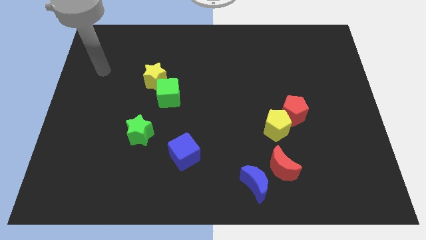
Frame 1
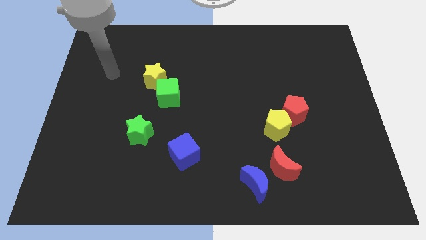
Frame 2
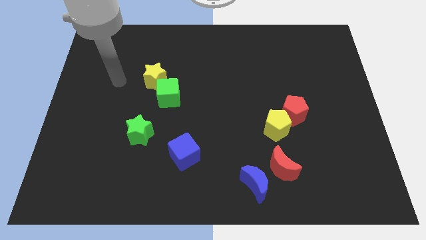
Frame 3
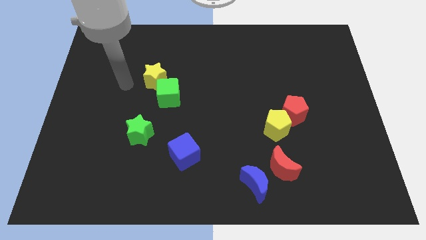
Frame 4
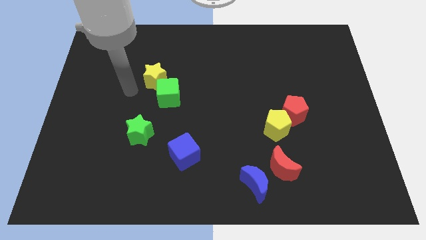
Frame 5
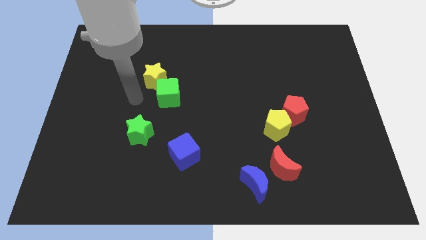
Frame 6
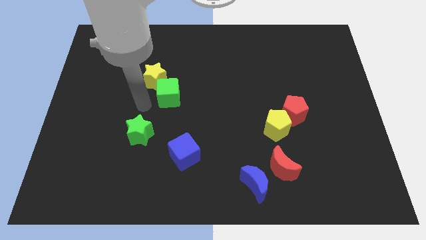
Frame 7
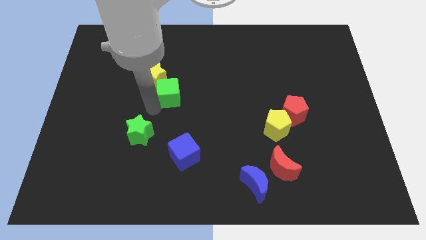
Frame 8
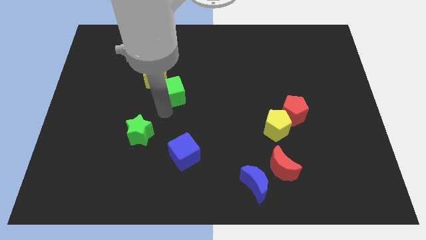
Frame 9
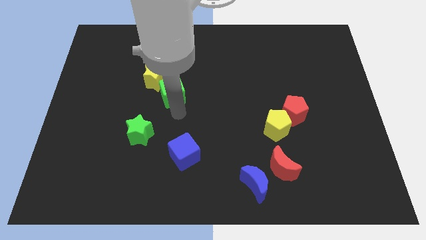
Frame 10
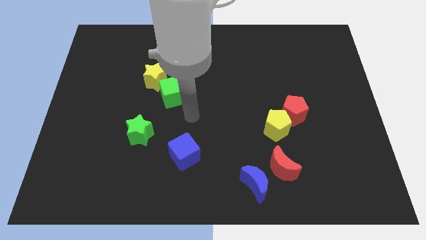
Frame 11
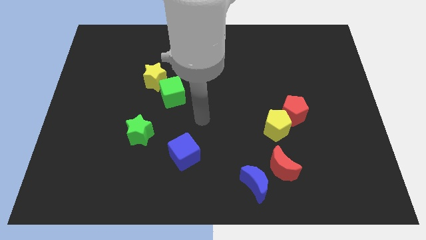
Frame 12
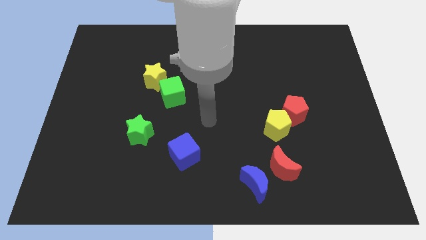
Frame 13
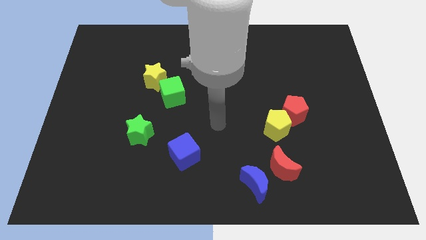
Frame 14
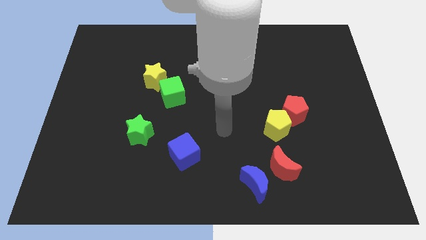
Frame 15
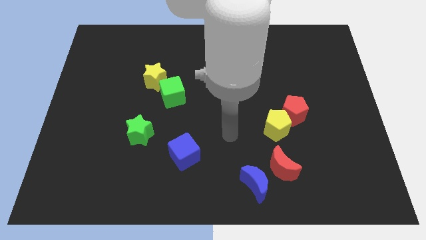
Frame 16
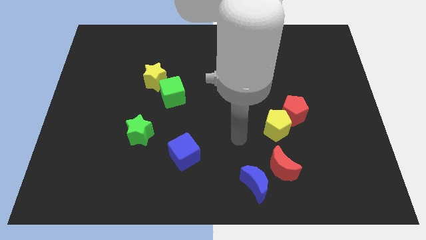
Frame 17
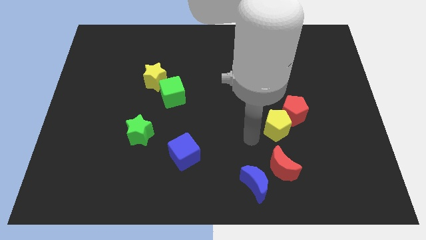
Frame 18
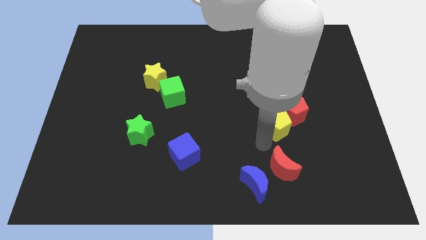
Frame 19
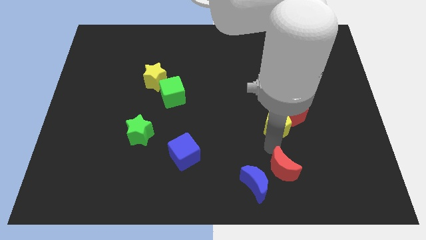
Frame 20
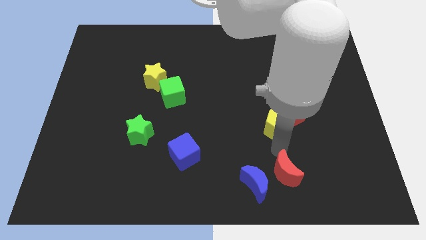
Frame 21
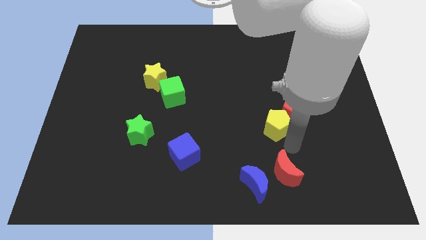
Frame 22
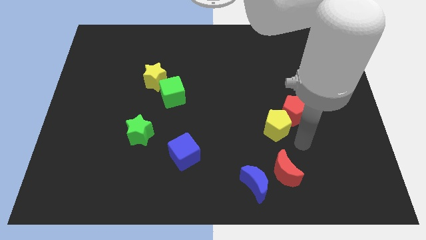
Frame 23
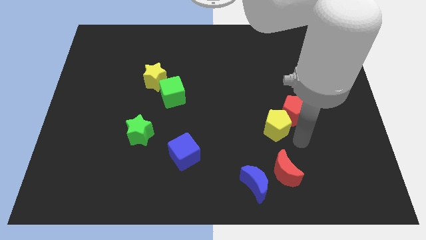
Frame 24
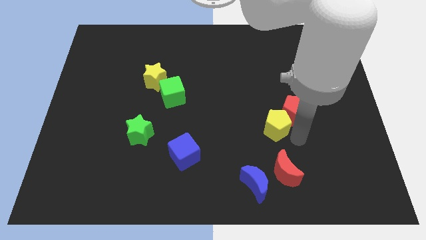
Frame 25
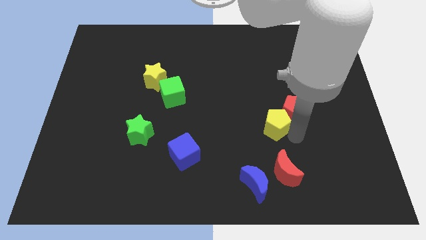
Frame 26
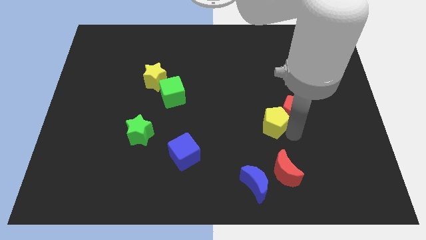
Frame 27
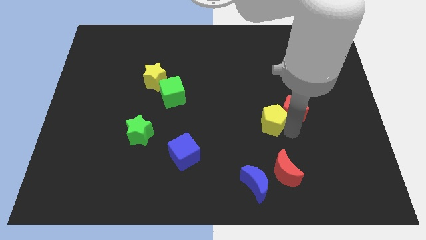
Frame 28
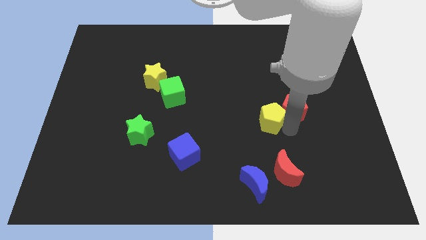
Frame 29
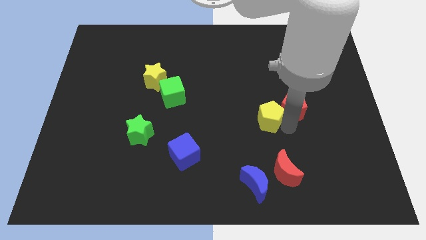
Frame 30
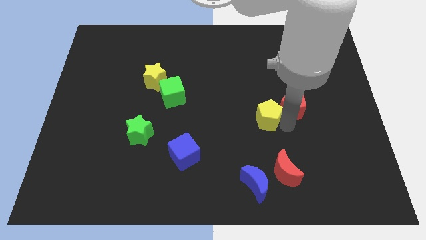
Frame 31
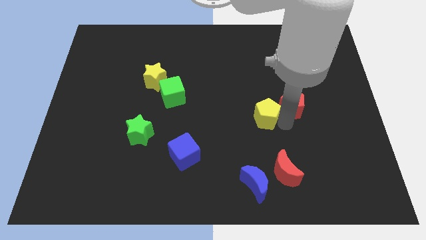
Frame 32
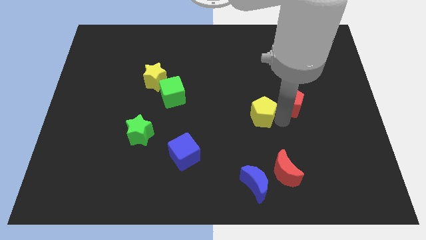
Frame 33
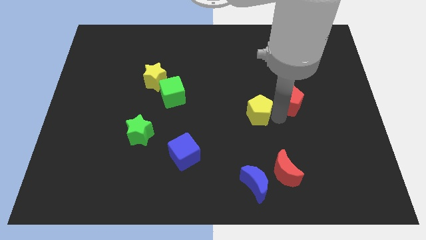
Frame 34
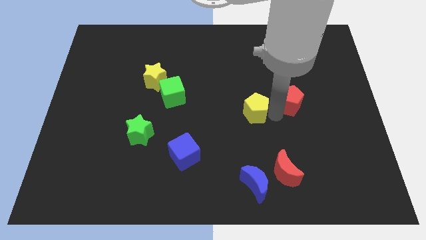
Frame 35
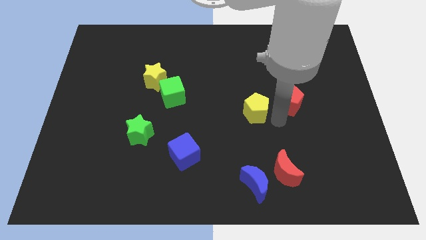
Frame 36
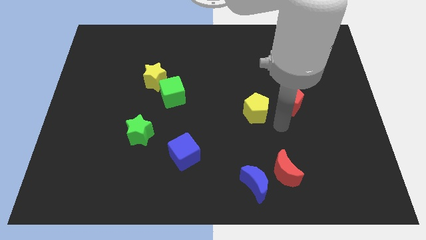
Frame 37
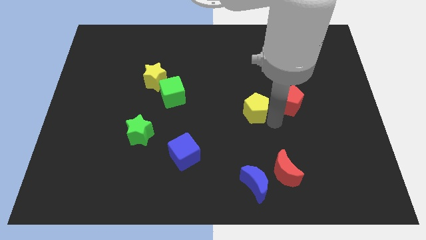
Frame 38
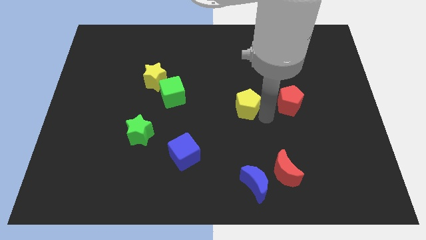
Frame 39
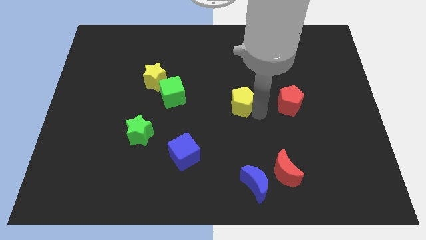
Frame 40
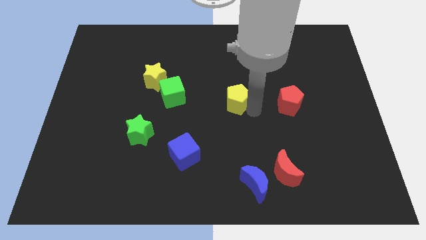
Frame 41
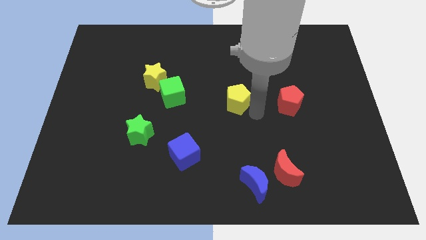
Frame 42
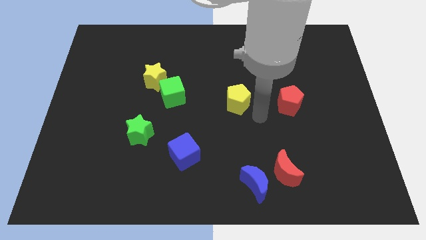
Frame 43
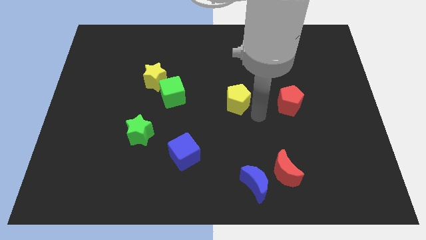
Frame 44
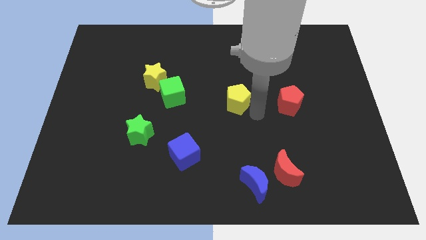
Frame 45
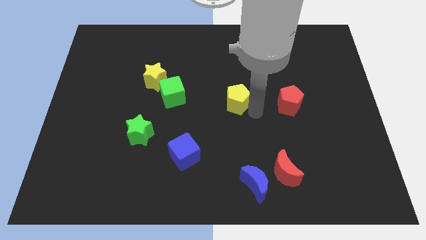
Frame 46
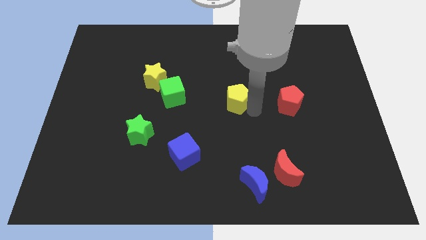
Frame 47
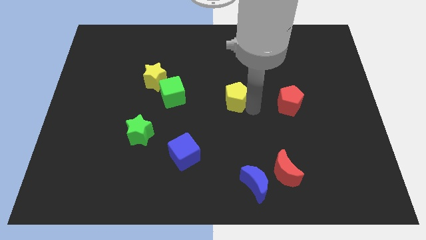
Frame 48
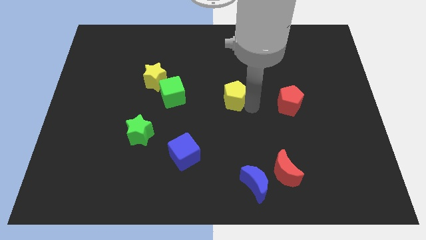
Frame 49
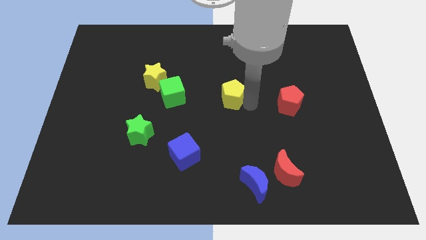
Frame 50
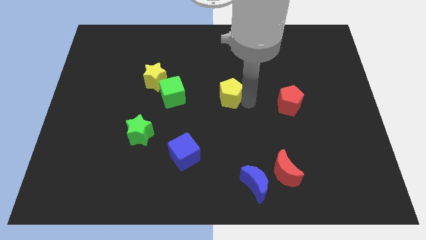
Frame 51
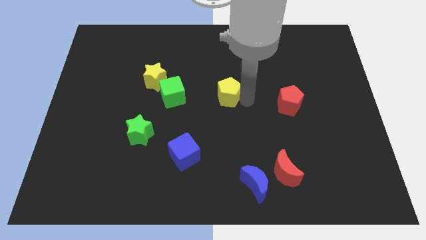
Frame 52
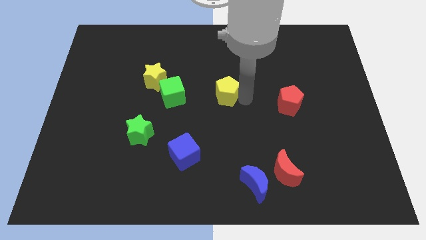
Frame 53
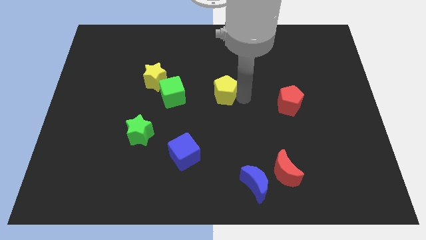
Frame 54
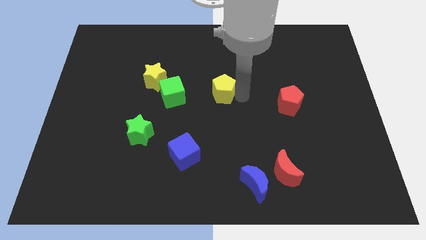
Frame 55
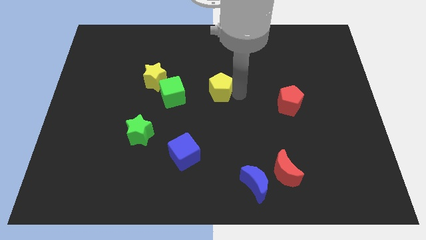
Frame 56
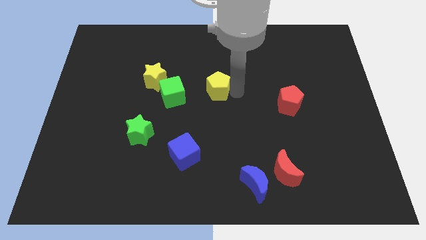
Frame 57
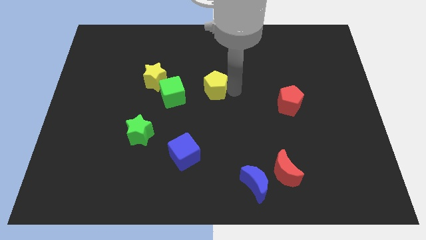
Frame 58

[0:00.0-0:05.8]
move the yellow pentagon right of the yellow star

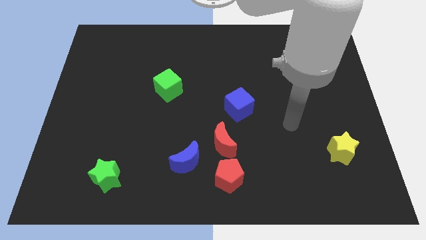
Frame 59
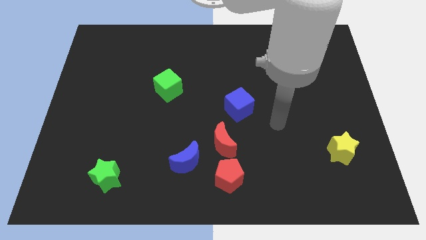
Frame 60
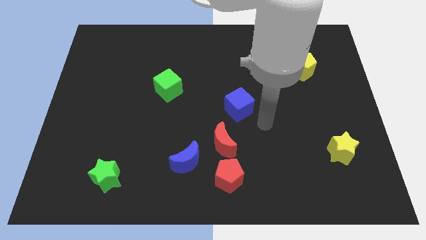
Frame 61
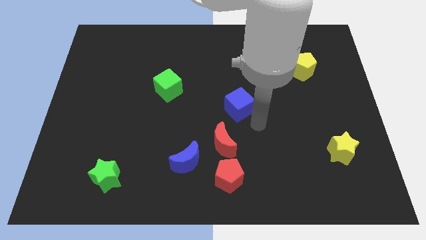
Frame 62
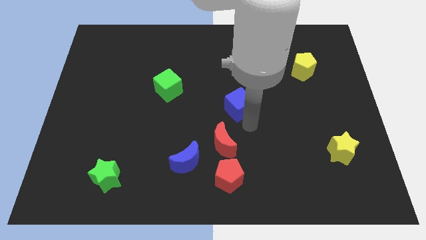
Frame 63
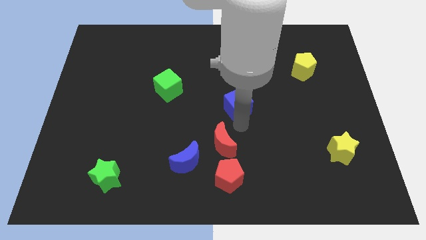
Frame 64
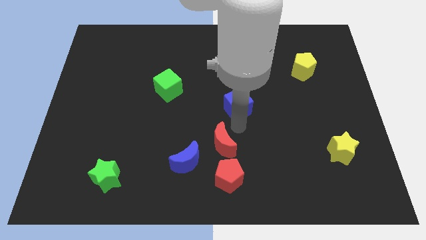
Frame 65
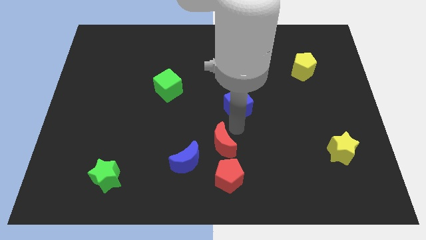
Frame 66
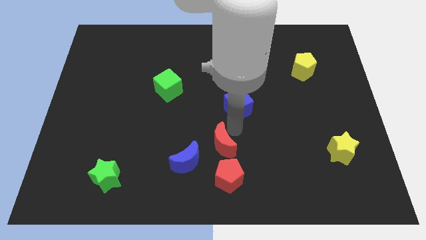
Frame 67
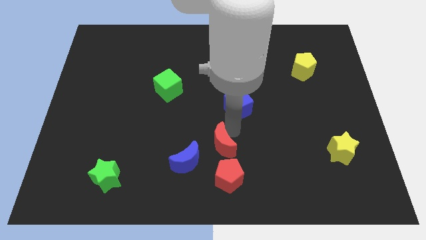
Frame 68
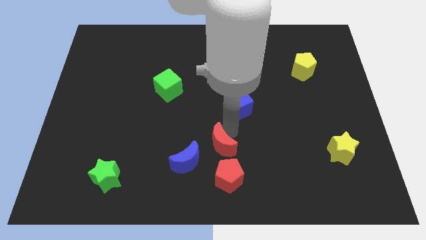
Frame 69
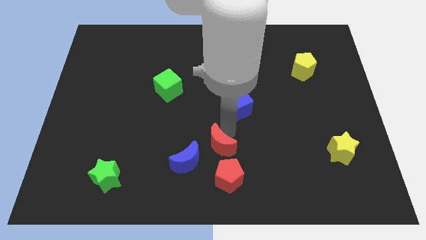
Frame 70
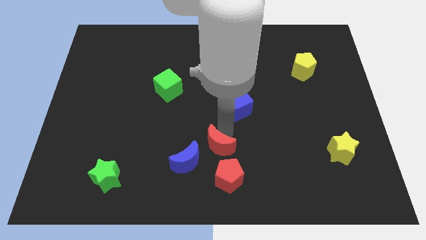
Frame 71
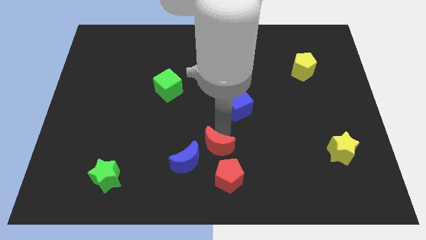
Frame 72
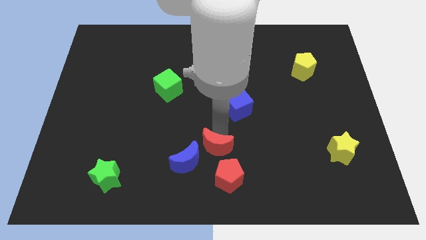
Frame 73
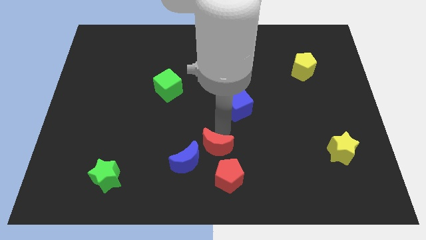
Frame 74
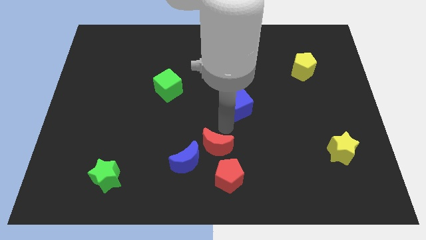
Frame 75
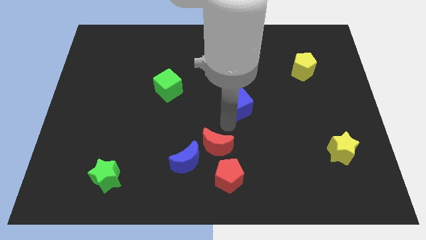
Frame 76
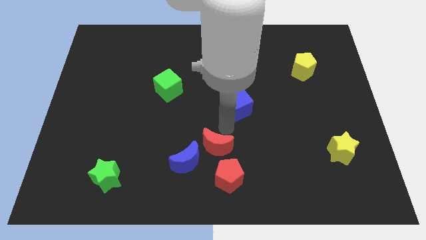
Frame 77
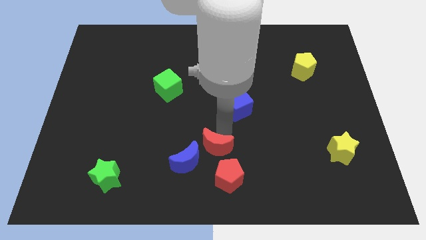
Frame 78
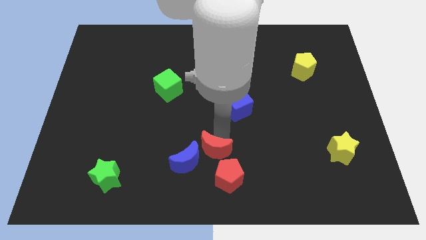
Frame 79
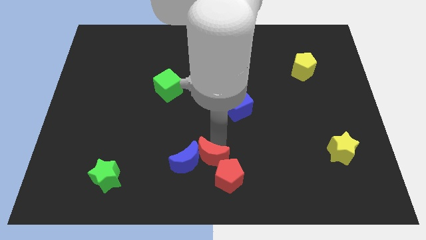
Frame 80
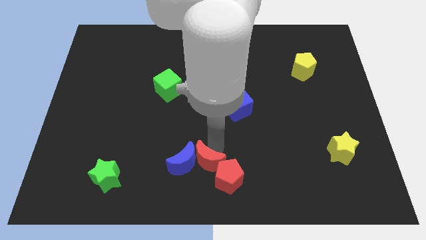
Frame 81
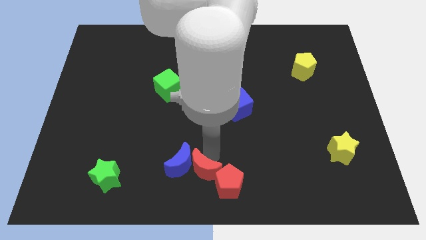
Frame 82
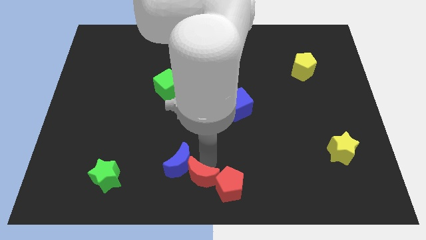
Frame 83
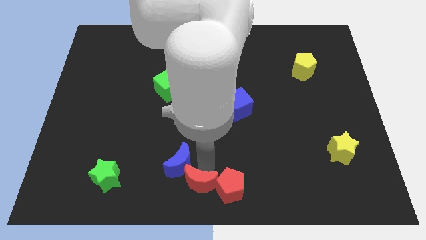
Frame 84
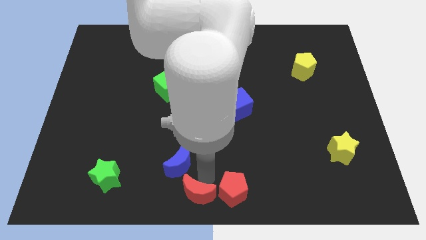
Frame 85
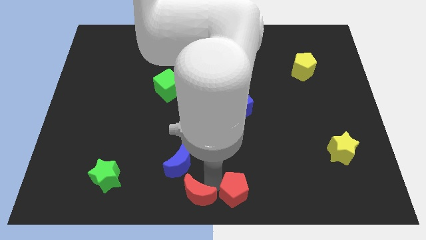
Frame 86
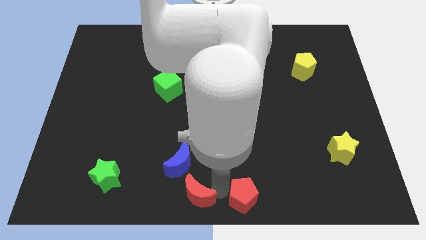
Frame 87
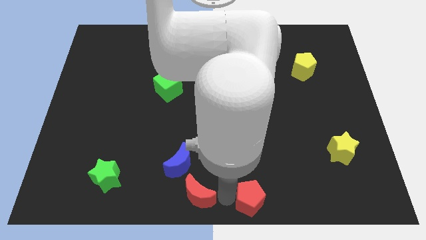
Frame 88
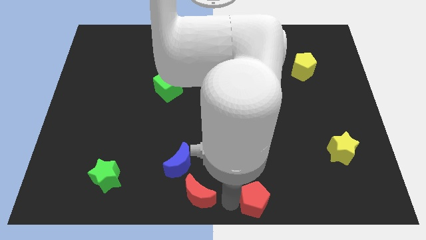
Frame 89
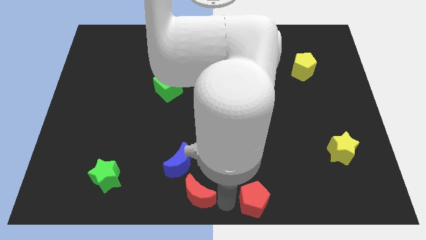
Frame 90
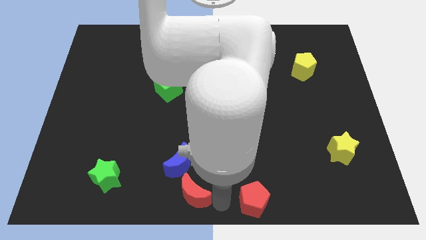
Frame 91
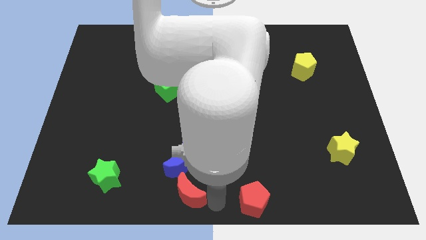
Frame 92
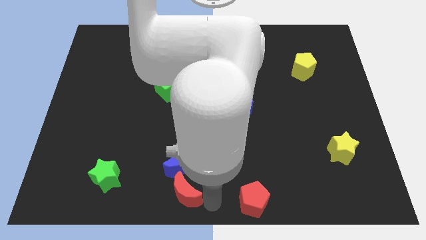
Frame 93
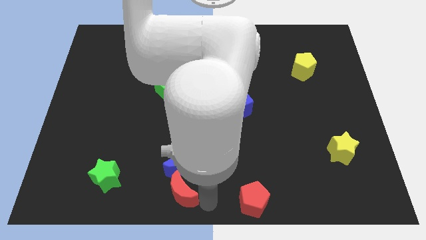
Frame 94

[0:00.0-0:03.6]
slide the red moon to the bottom left side of the blue moon
